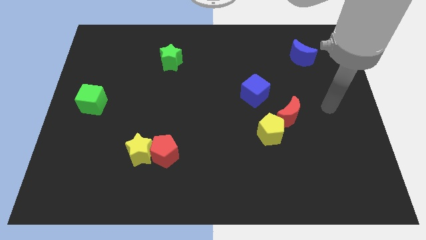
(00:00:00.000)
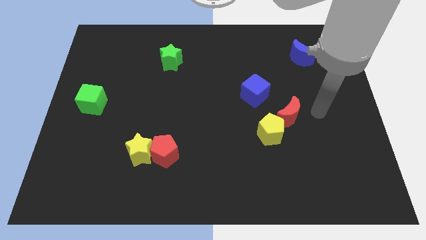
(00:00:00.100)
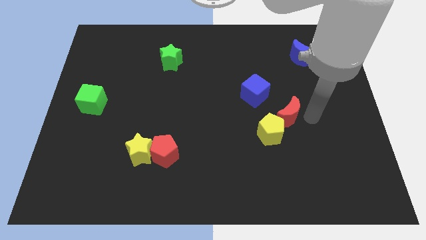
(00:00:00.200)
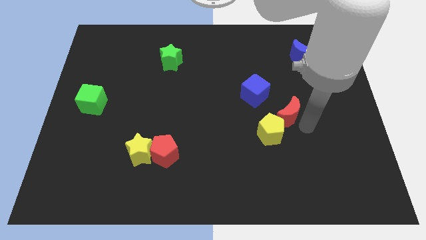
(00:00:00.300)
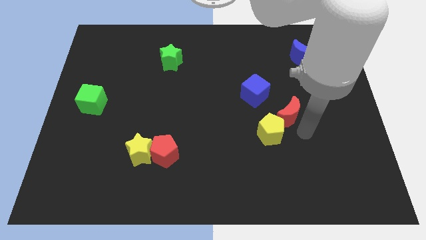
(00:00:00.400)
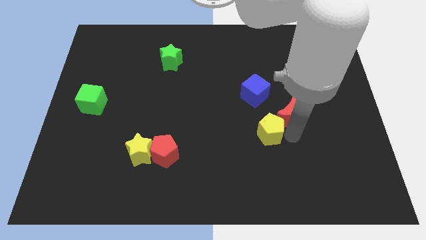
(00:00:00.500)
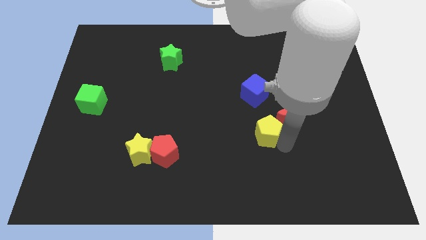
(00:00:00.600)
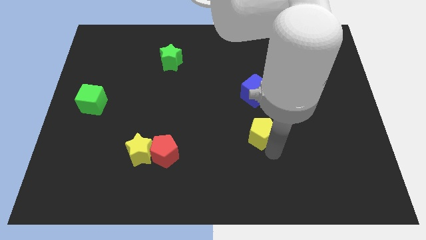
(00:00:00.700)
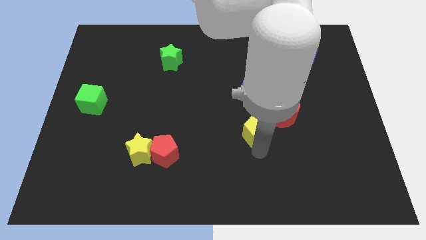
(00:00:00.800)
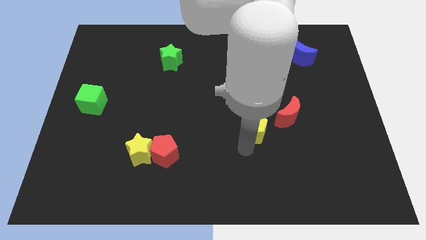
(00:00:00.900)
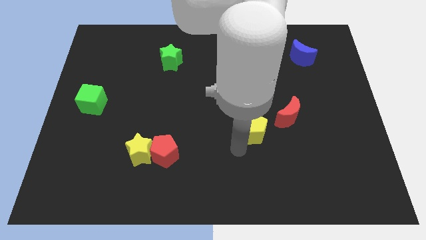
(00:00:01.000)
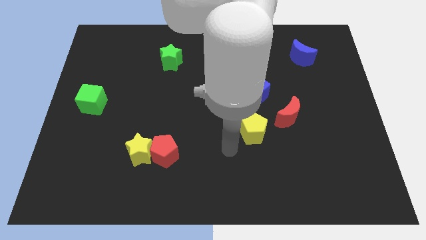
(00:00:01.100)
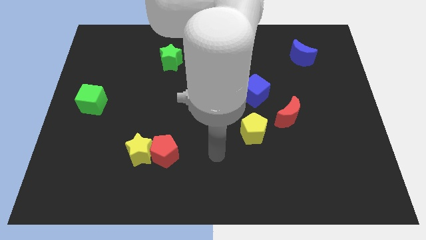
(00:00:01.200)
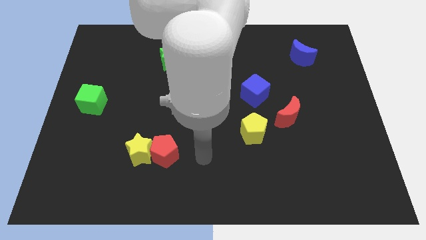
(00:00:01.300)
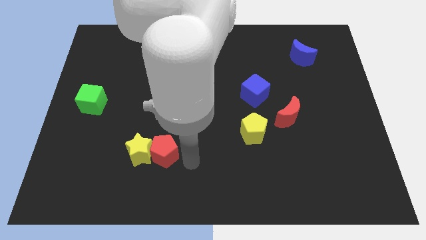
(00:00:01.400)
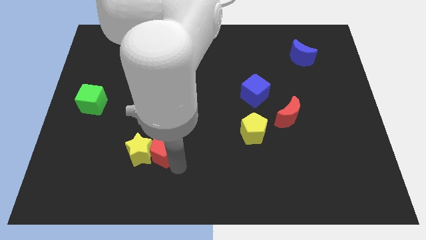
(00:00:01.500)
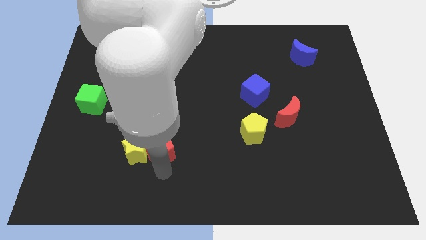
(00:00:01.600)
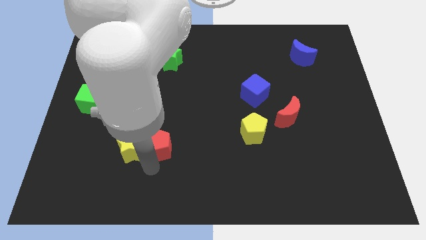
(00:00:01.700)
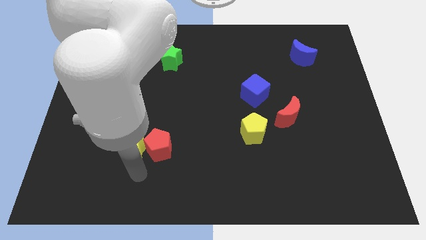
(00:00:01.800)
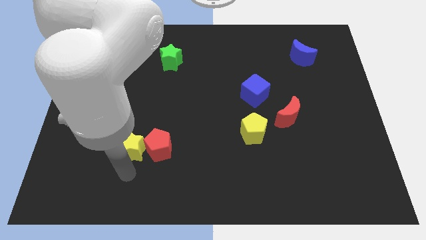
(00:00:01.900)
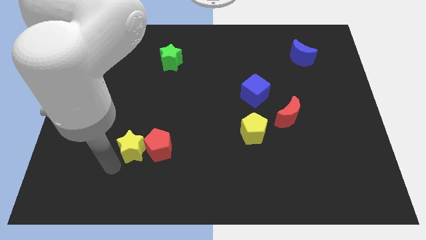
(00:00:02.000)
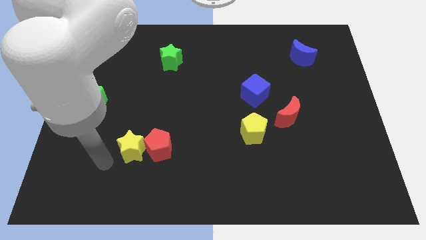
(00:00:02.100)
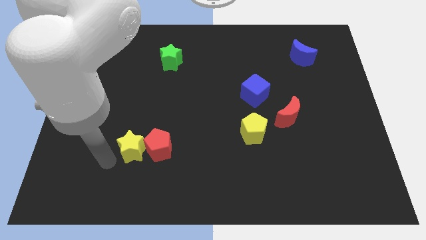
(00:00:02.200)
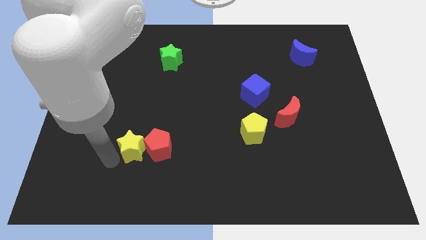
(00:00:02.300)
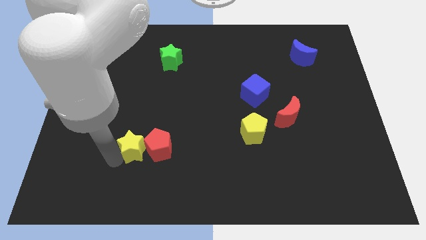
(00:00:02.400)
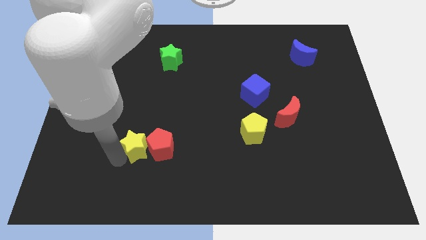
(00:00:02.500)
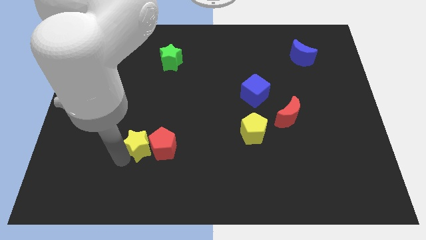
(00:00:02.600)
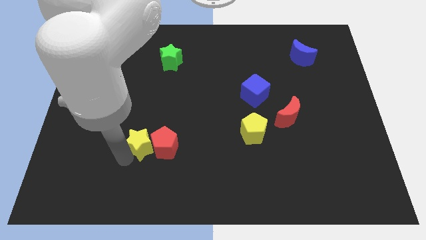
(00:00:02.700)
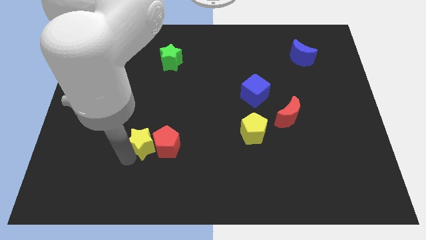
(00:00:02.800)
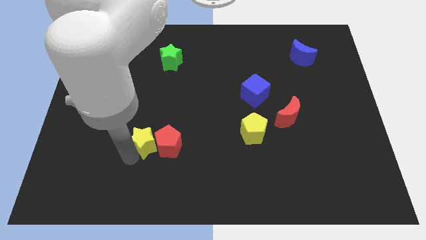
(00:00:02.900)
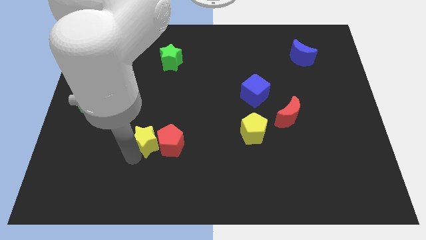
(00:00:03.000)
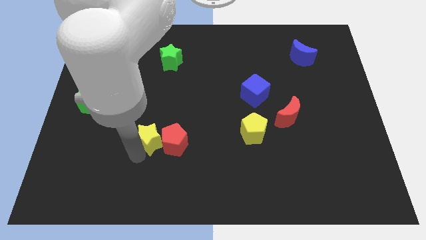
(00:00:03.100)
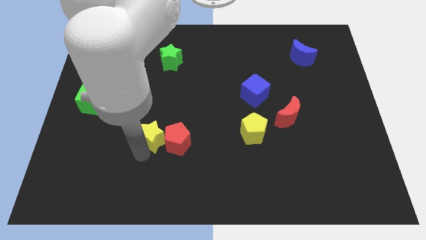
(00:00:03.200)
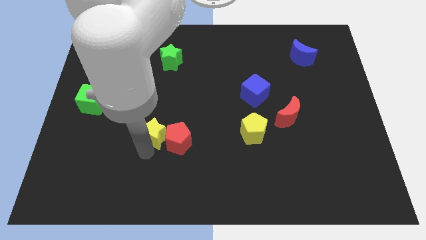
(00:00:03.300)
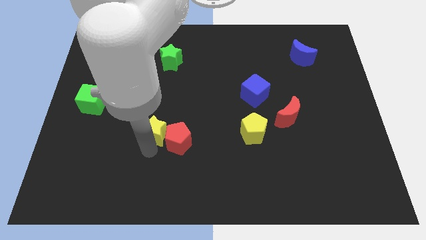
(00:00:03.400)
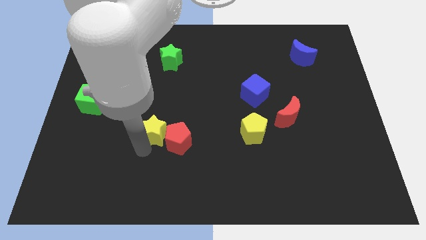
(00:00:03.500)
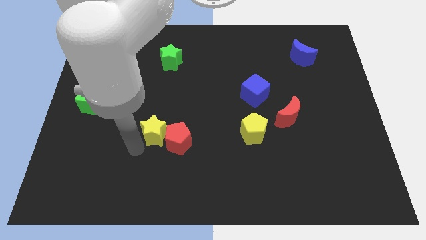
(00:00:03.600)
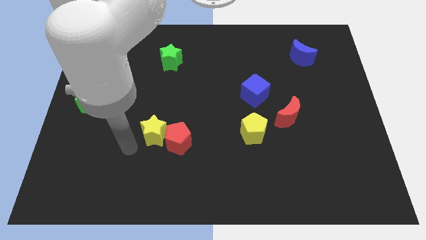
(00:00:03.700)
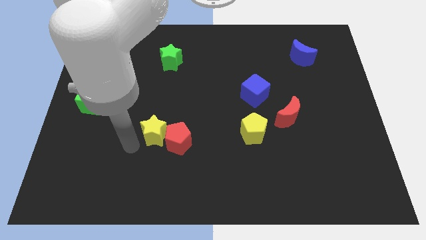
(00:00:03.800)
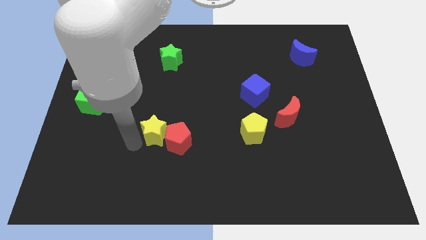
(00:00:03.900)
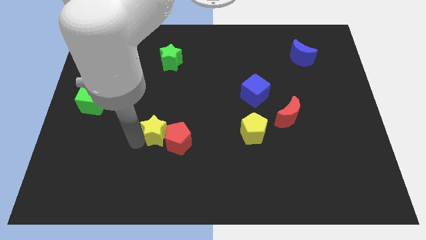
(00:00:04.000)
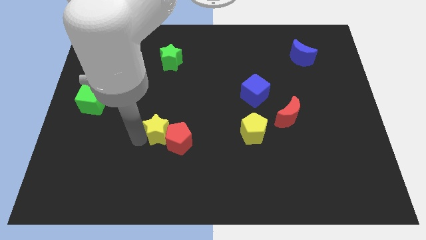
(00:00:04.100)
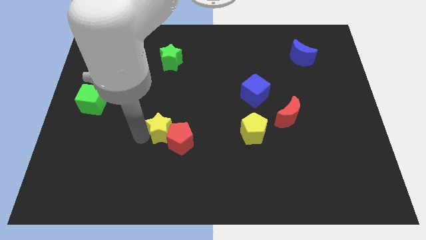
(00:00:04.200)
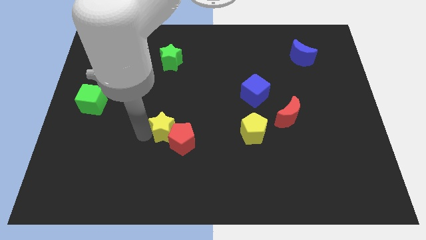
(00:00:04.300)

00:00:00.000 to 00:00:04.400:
push the yellow star a bit up and then right

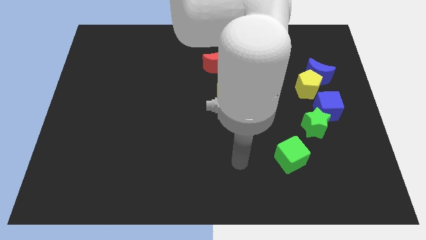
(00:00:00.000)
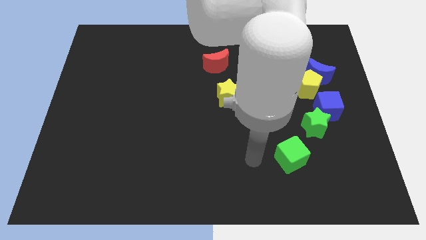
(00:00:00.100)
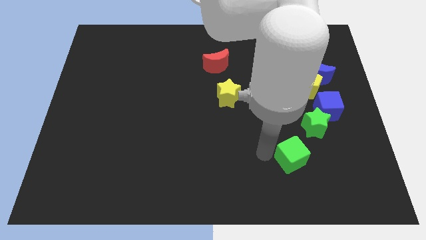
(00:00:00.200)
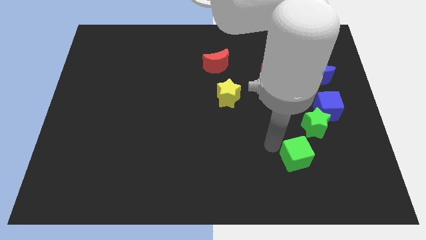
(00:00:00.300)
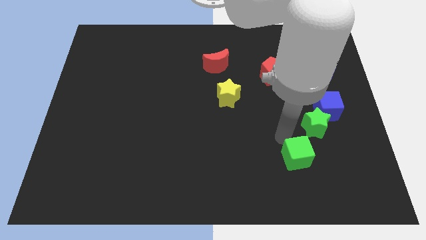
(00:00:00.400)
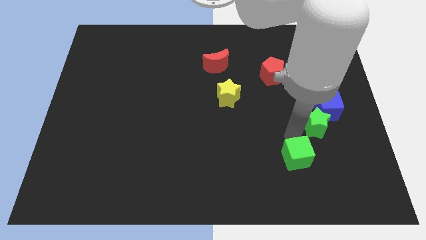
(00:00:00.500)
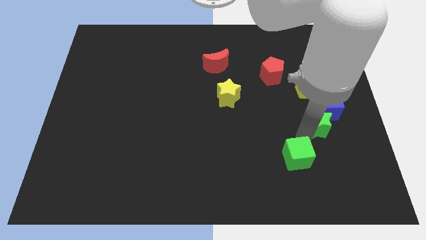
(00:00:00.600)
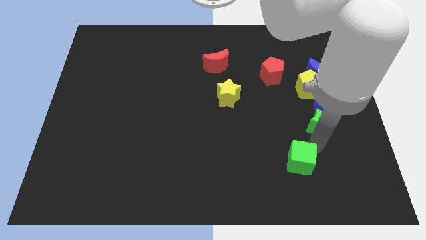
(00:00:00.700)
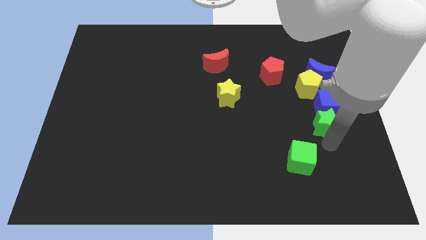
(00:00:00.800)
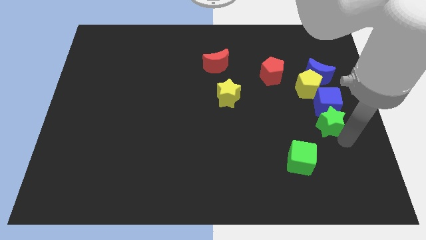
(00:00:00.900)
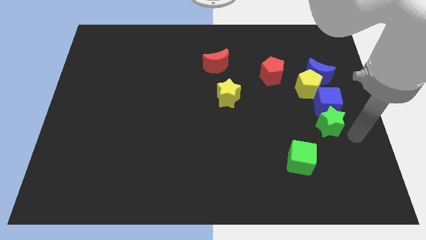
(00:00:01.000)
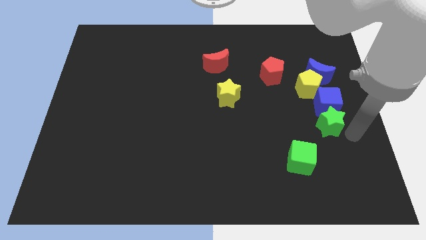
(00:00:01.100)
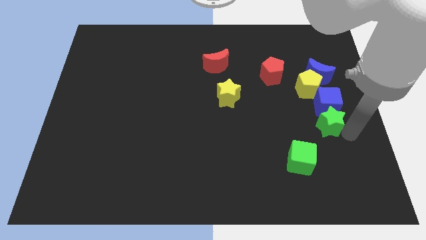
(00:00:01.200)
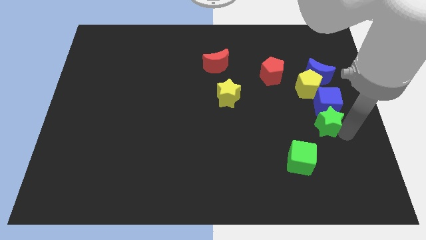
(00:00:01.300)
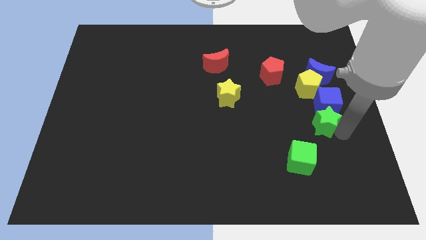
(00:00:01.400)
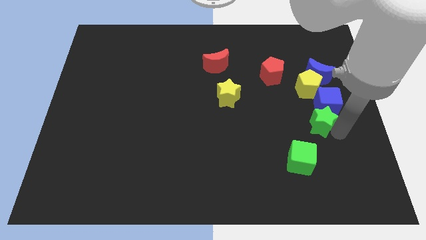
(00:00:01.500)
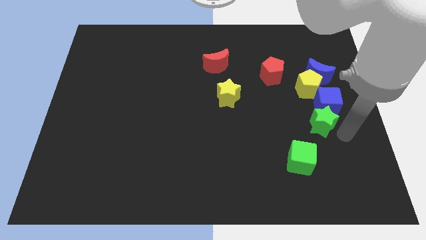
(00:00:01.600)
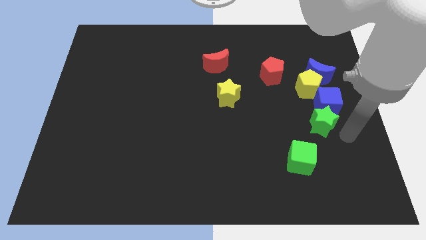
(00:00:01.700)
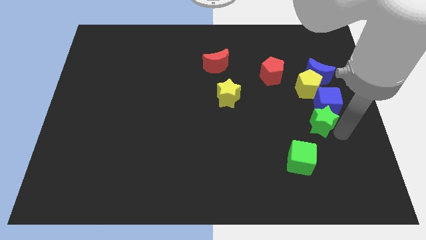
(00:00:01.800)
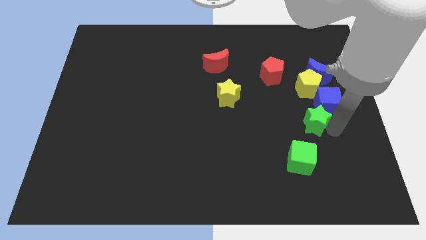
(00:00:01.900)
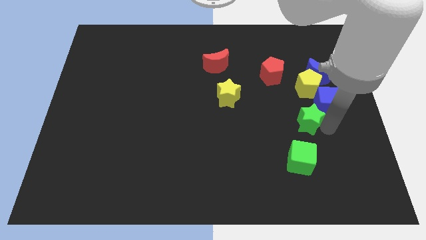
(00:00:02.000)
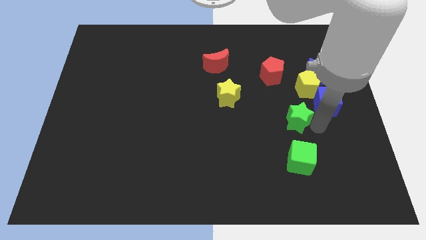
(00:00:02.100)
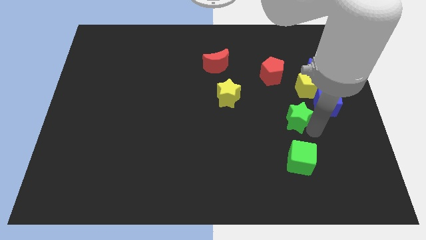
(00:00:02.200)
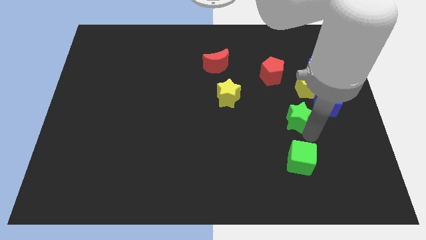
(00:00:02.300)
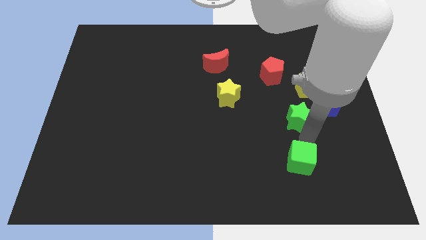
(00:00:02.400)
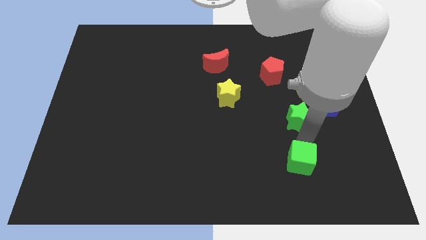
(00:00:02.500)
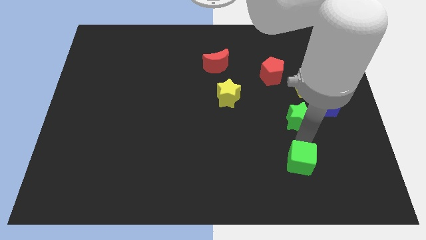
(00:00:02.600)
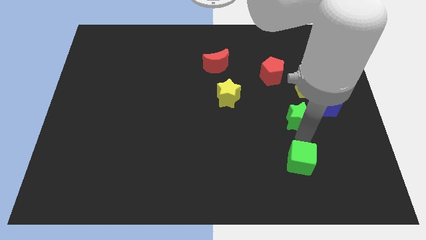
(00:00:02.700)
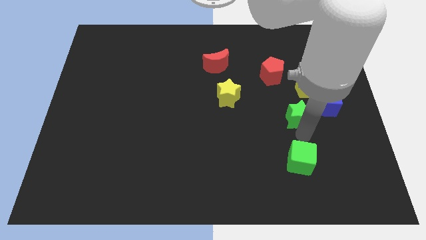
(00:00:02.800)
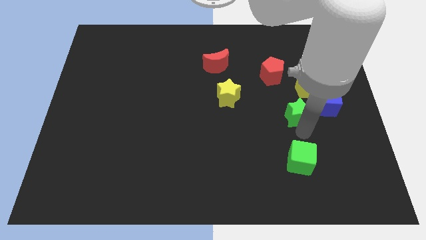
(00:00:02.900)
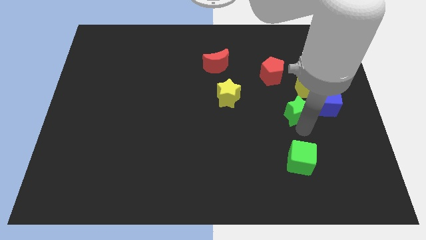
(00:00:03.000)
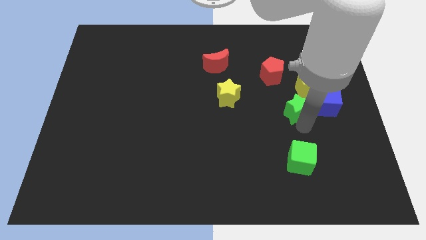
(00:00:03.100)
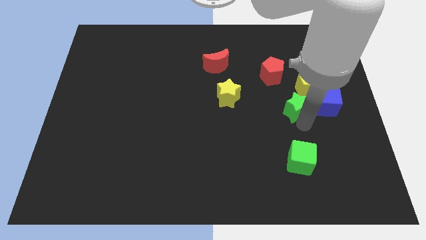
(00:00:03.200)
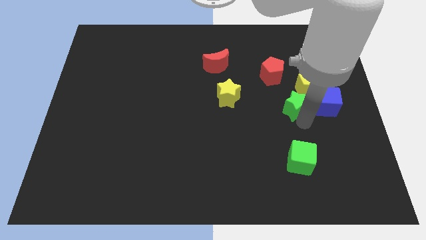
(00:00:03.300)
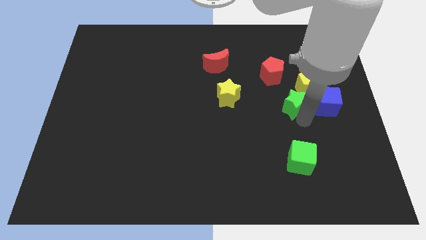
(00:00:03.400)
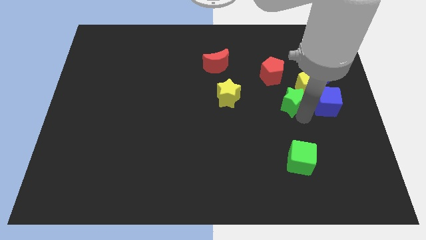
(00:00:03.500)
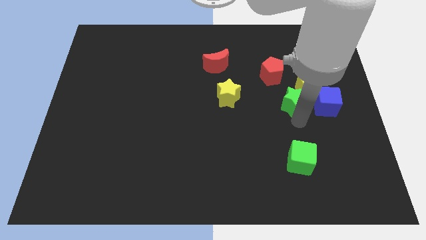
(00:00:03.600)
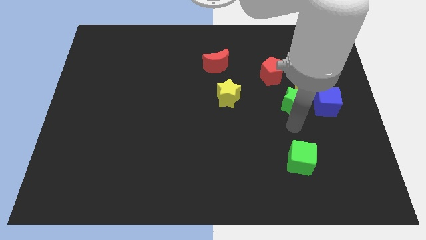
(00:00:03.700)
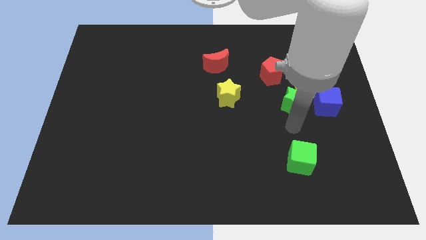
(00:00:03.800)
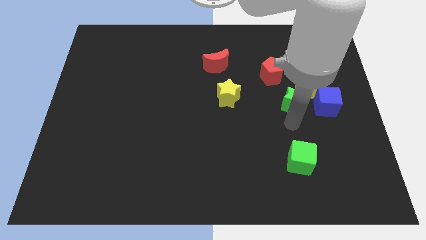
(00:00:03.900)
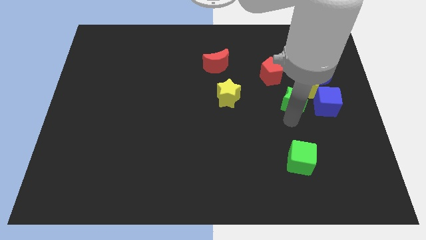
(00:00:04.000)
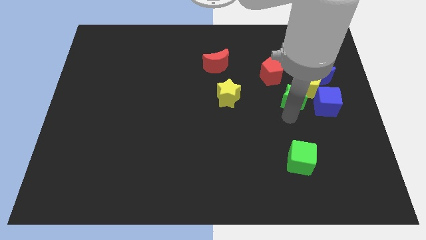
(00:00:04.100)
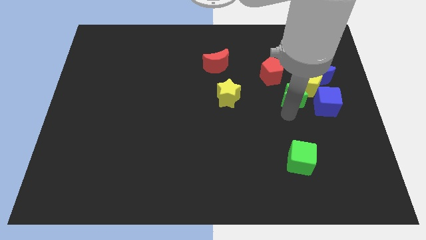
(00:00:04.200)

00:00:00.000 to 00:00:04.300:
slightly push the green star upwards
